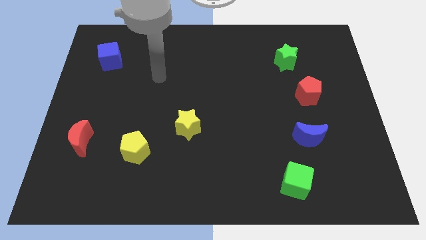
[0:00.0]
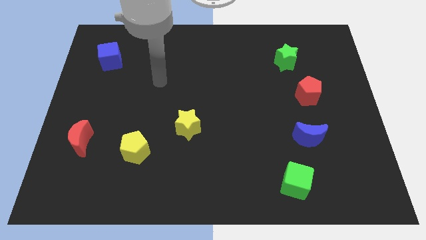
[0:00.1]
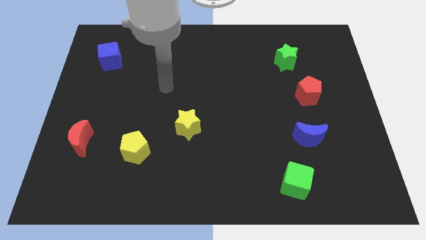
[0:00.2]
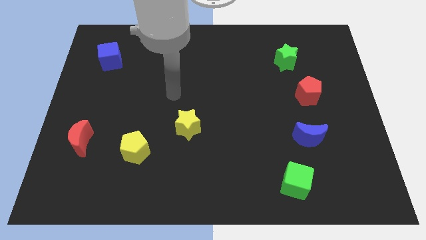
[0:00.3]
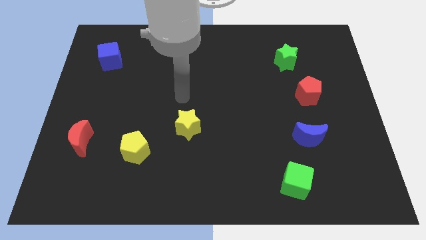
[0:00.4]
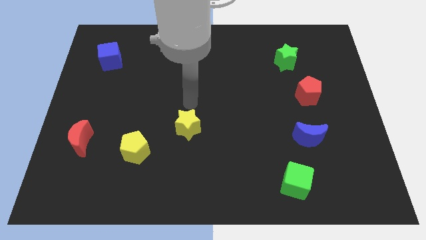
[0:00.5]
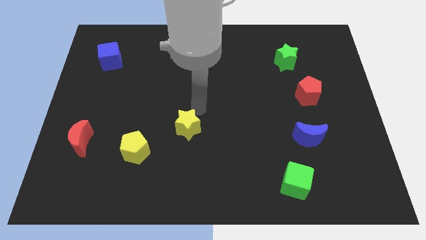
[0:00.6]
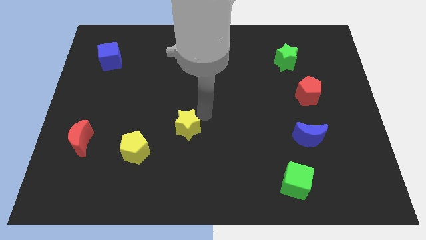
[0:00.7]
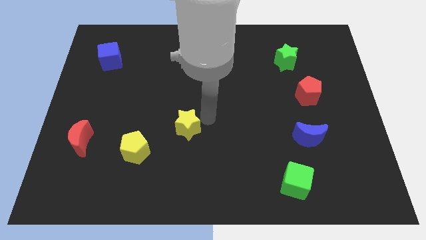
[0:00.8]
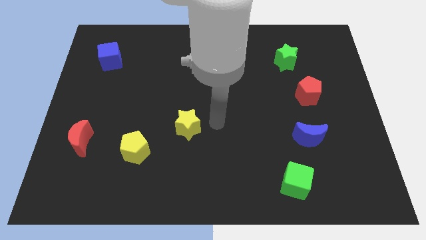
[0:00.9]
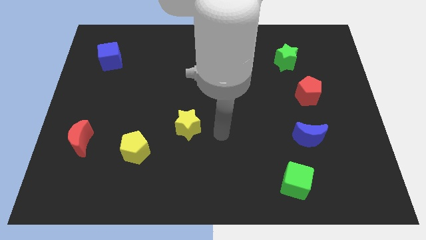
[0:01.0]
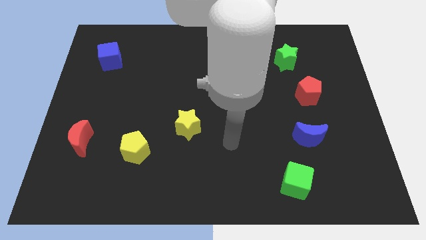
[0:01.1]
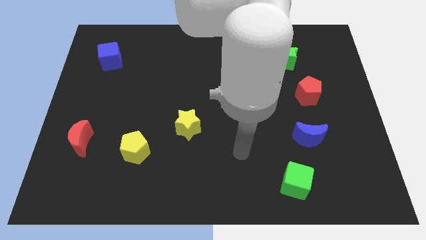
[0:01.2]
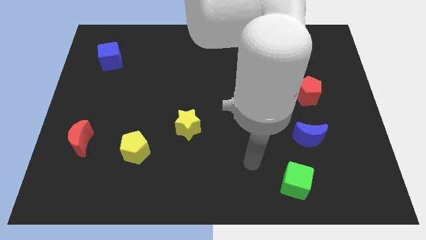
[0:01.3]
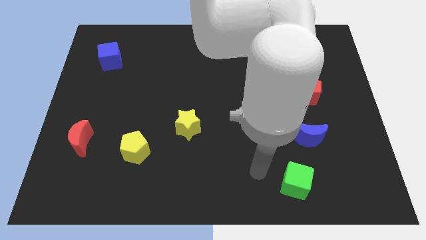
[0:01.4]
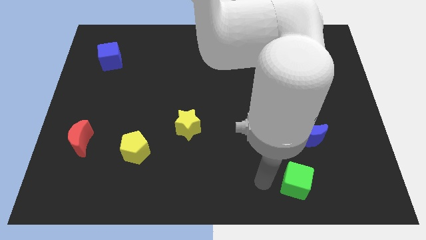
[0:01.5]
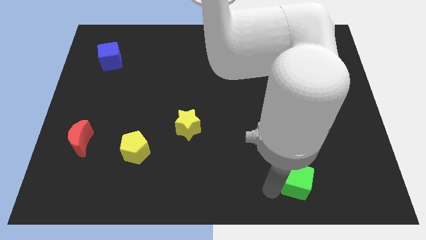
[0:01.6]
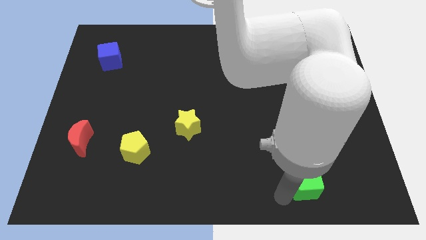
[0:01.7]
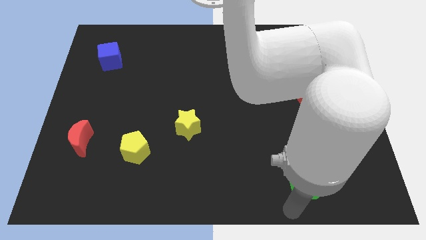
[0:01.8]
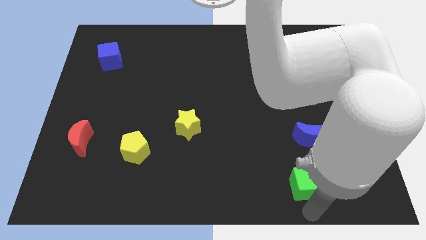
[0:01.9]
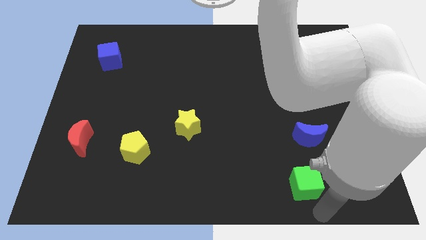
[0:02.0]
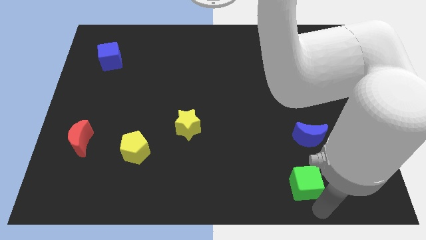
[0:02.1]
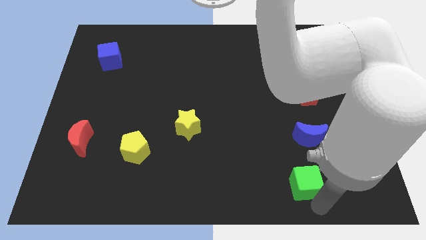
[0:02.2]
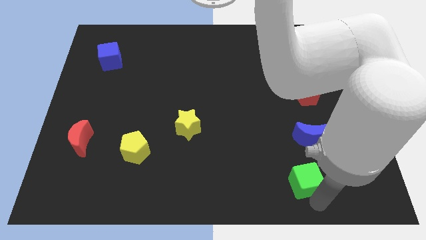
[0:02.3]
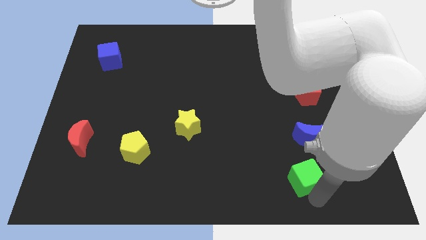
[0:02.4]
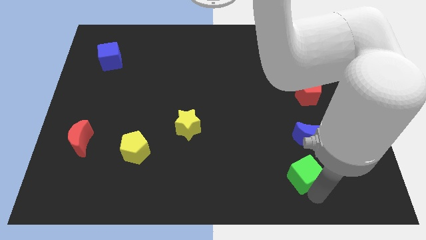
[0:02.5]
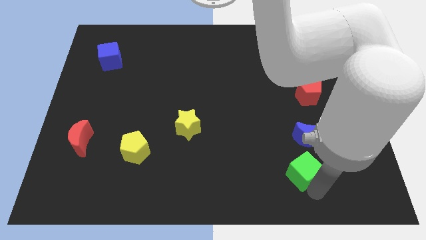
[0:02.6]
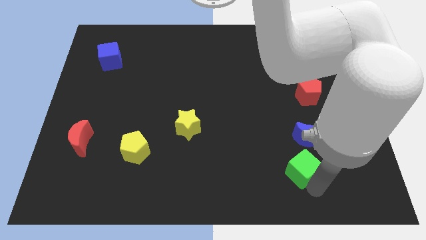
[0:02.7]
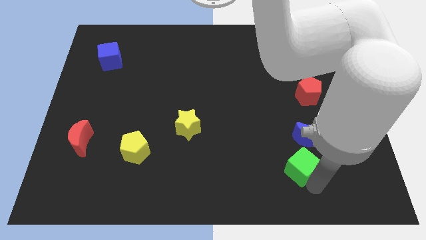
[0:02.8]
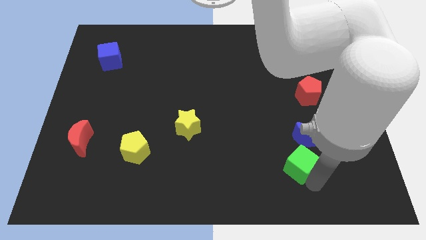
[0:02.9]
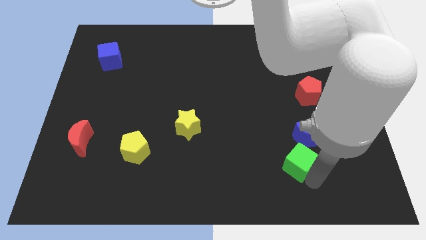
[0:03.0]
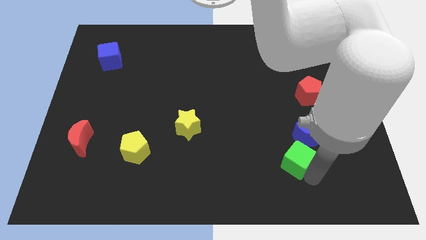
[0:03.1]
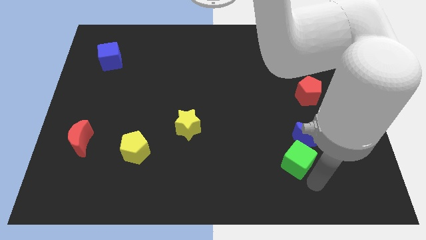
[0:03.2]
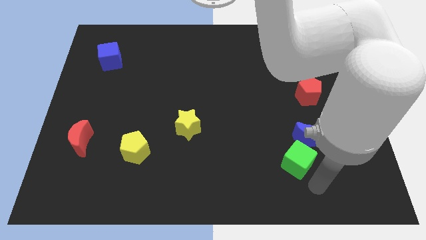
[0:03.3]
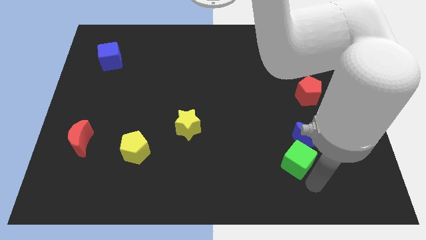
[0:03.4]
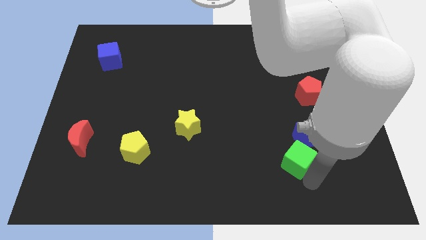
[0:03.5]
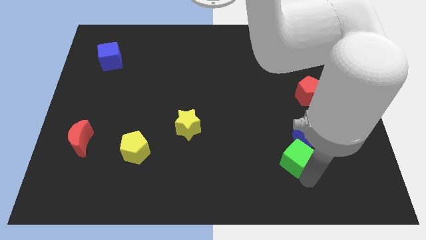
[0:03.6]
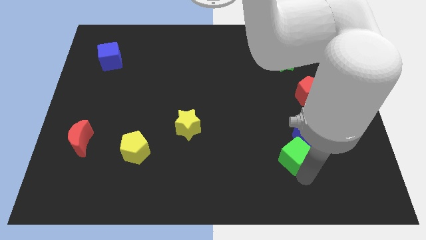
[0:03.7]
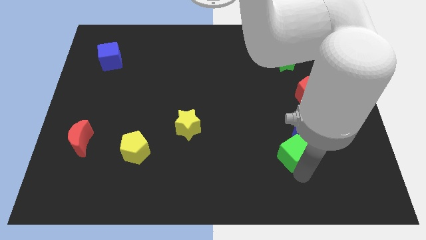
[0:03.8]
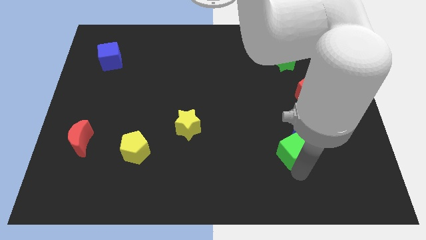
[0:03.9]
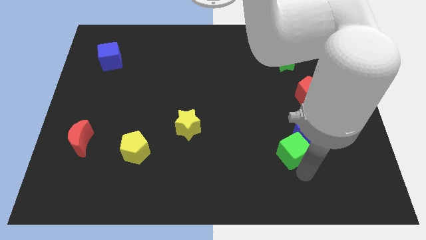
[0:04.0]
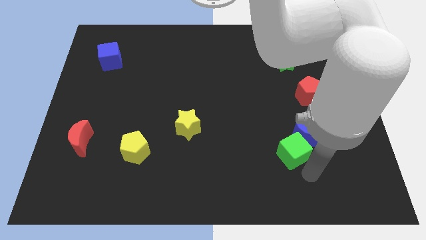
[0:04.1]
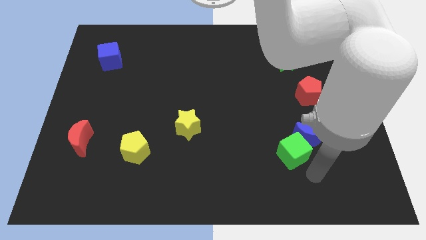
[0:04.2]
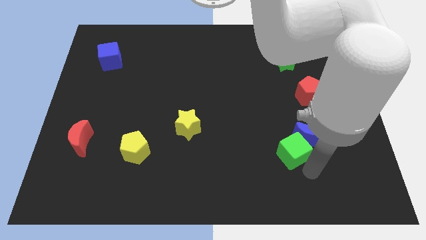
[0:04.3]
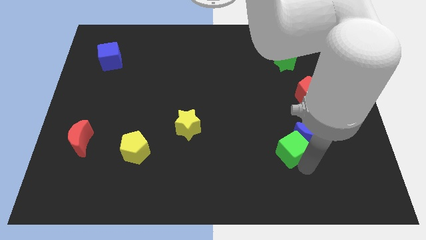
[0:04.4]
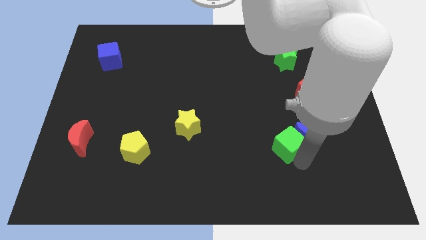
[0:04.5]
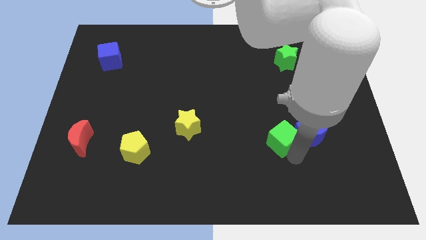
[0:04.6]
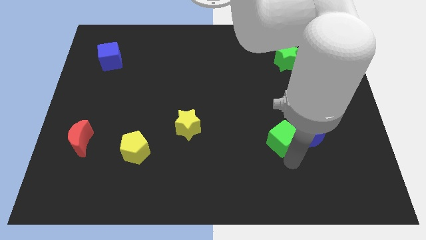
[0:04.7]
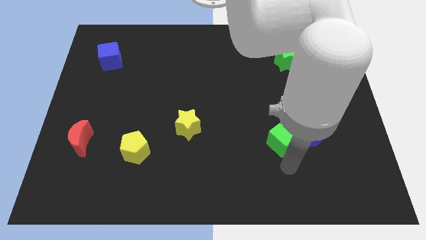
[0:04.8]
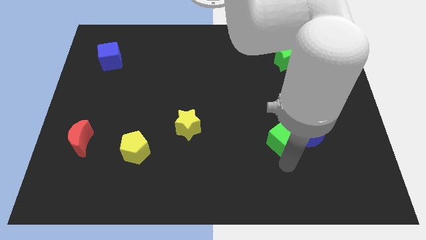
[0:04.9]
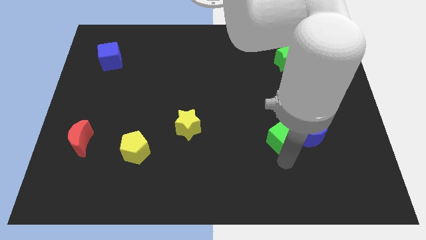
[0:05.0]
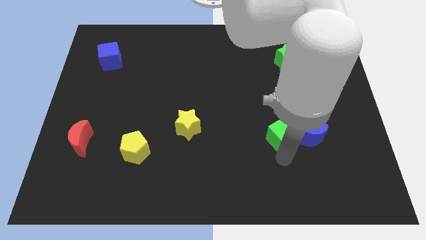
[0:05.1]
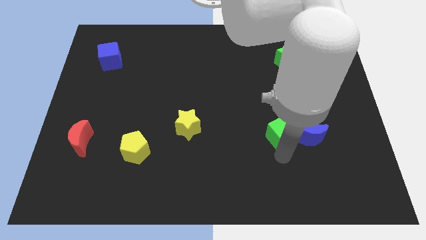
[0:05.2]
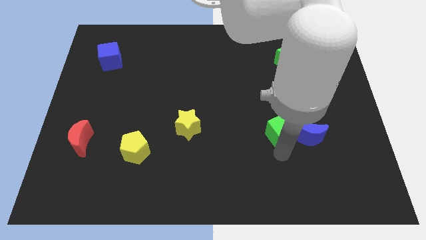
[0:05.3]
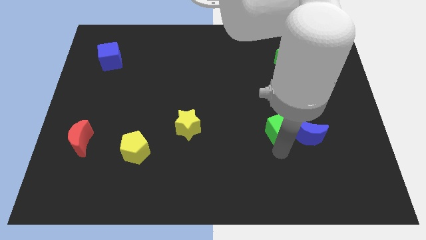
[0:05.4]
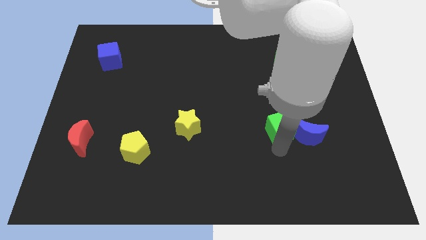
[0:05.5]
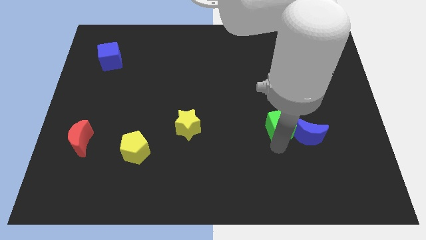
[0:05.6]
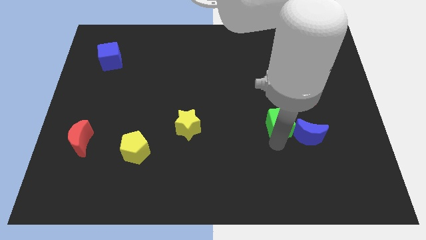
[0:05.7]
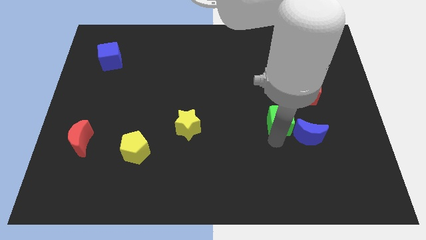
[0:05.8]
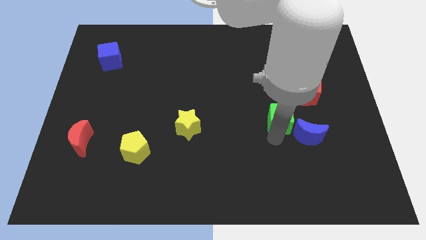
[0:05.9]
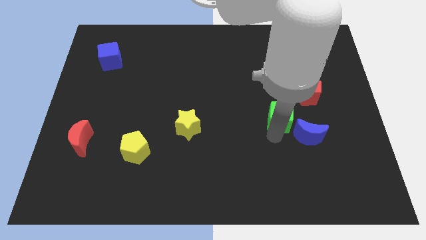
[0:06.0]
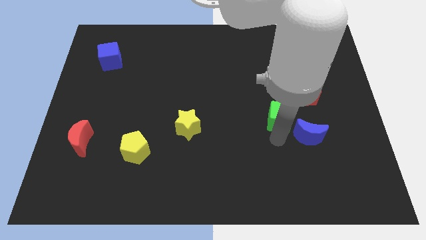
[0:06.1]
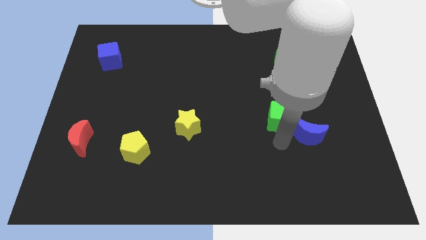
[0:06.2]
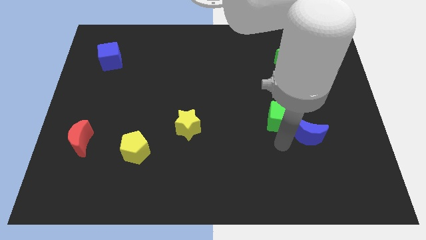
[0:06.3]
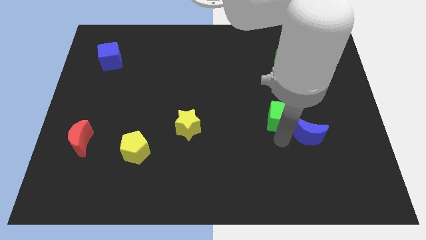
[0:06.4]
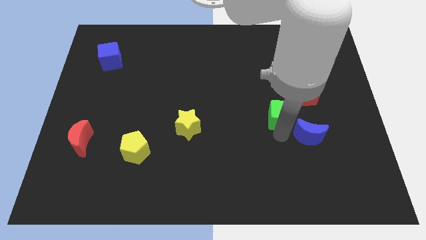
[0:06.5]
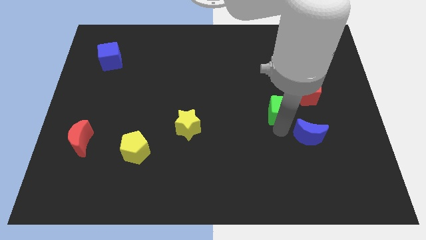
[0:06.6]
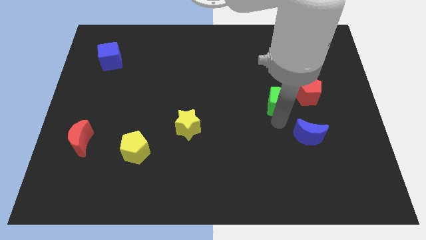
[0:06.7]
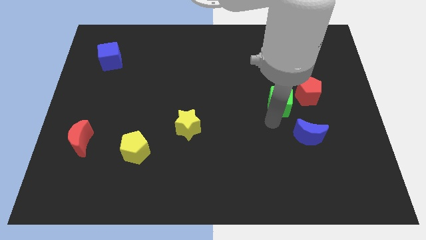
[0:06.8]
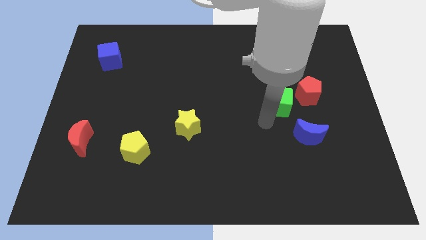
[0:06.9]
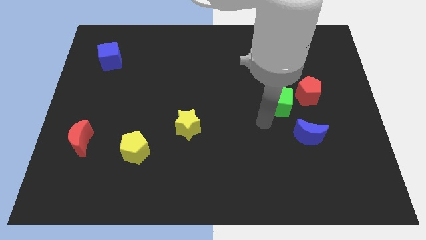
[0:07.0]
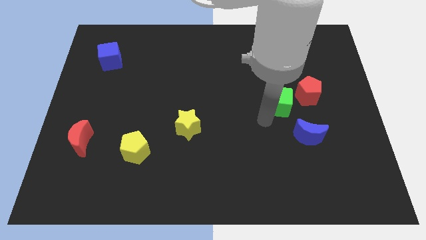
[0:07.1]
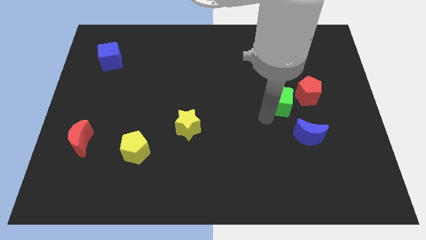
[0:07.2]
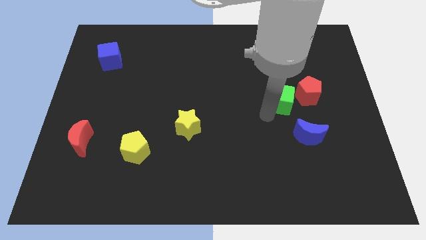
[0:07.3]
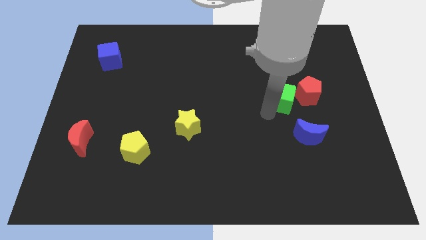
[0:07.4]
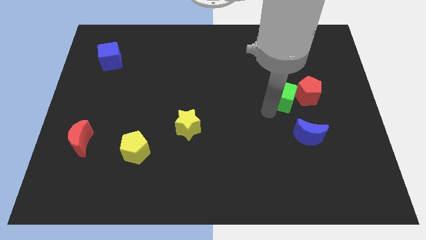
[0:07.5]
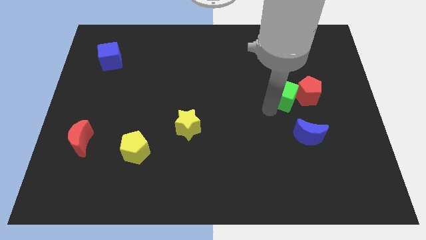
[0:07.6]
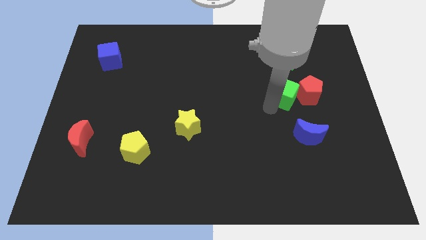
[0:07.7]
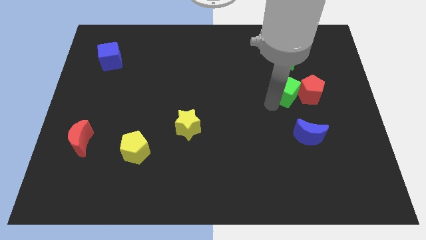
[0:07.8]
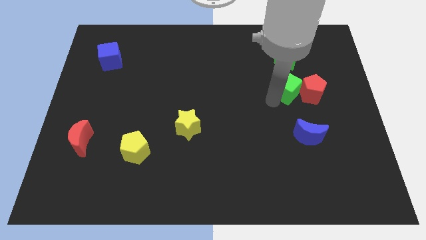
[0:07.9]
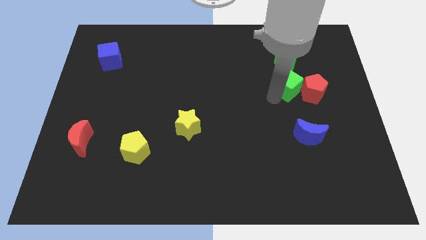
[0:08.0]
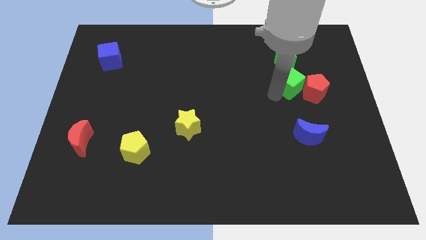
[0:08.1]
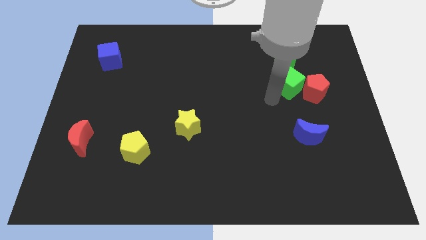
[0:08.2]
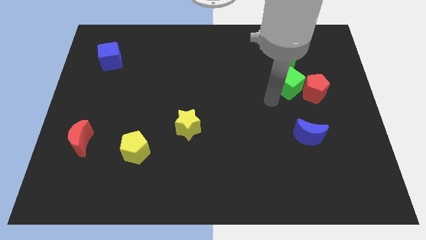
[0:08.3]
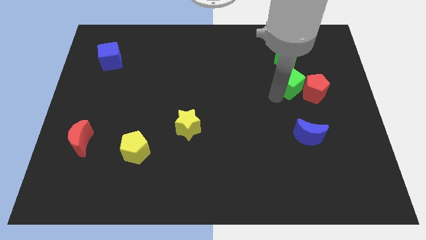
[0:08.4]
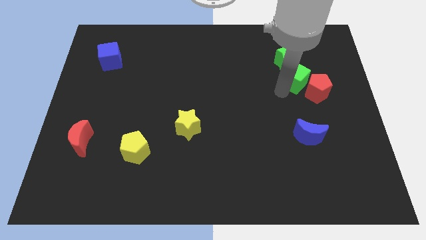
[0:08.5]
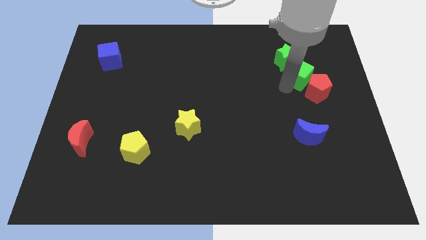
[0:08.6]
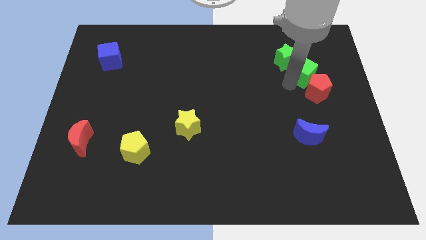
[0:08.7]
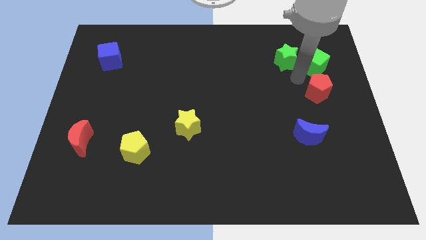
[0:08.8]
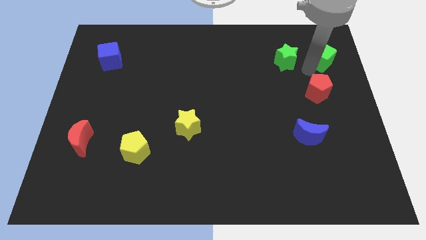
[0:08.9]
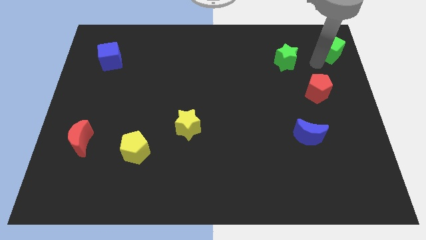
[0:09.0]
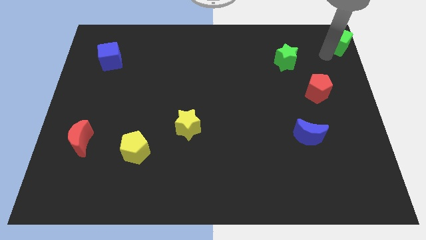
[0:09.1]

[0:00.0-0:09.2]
slide the green cube to the top right
